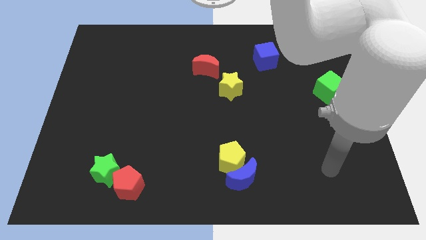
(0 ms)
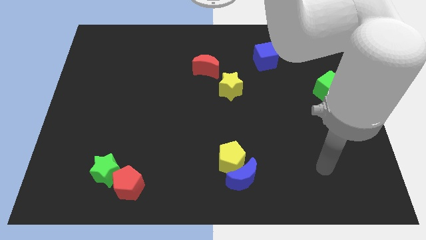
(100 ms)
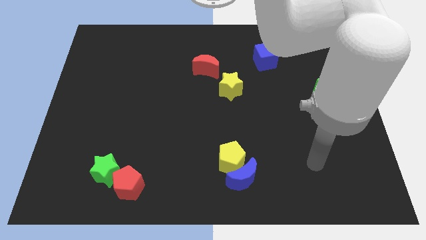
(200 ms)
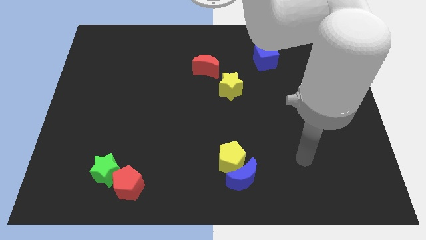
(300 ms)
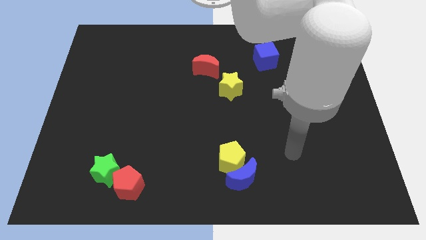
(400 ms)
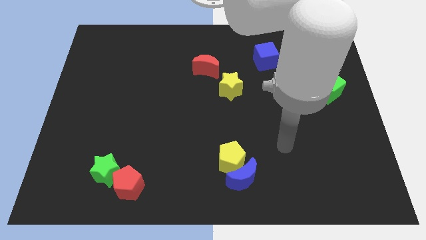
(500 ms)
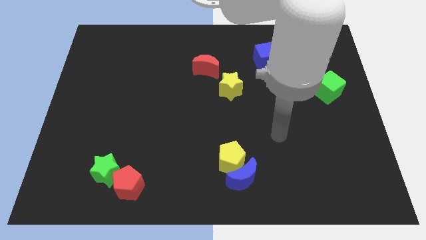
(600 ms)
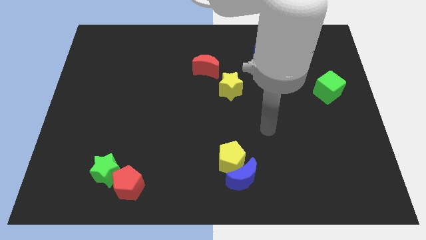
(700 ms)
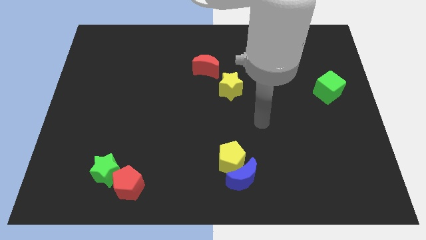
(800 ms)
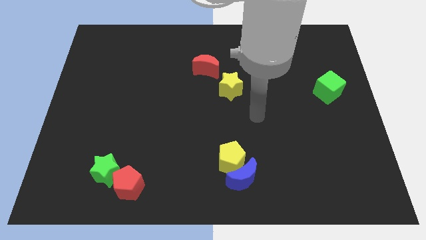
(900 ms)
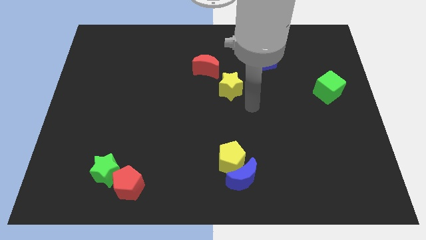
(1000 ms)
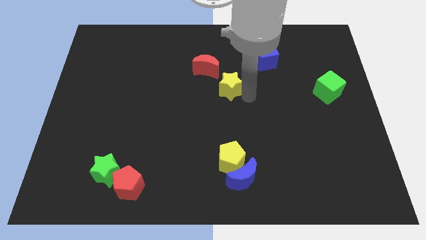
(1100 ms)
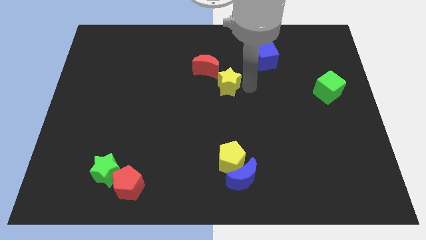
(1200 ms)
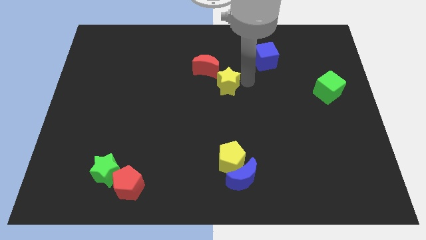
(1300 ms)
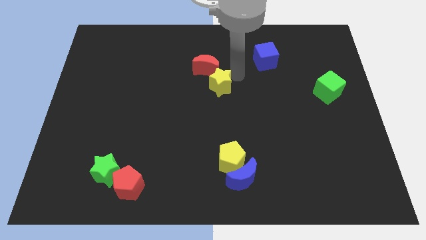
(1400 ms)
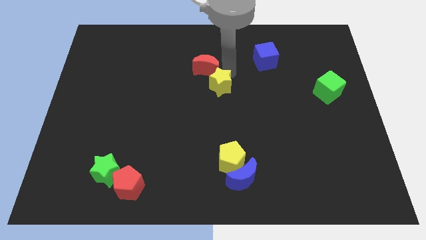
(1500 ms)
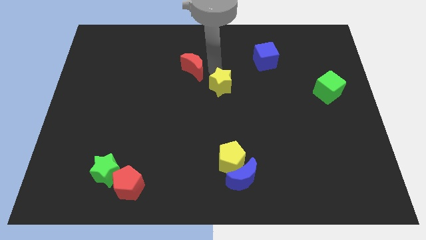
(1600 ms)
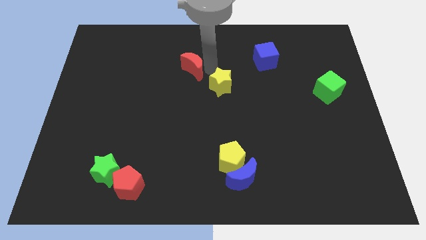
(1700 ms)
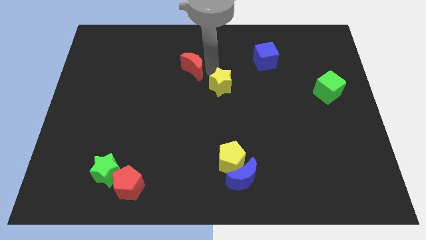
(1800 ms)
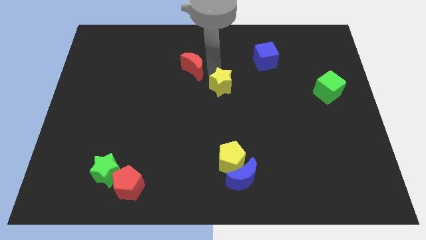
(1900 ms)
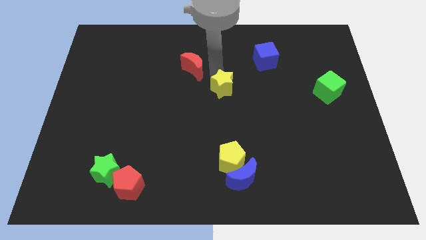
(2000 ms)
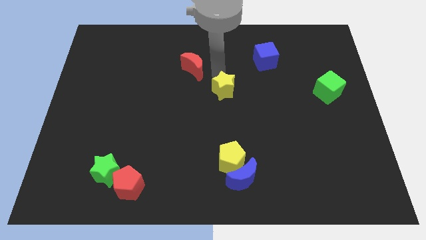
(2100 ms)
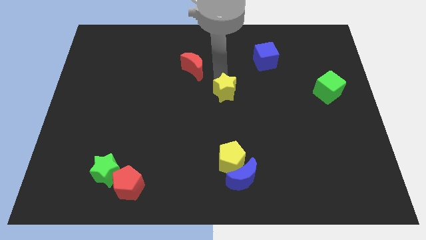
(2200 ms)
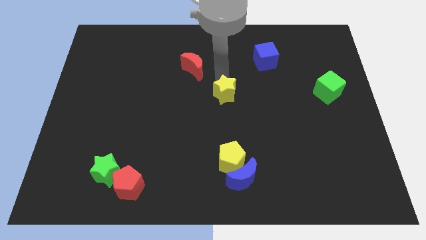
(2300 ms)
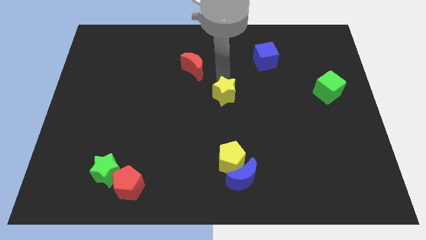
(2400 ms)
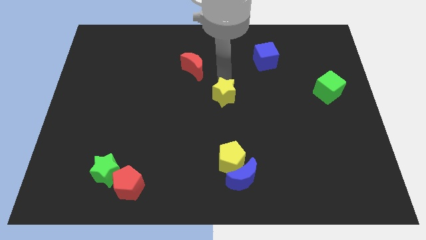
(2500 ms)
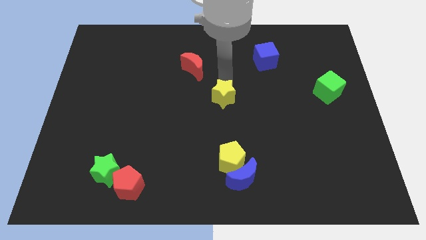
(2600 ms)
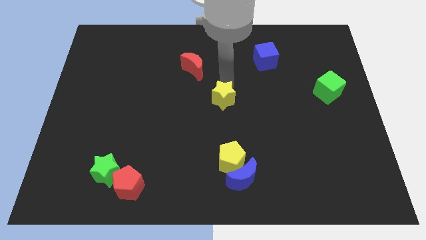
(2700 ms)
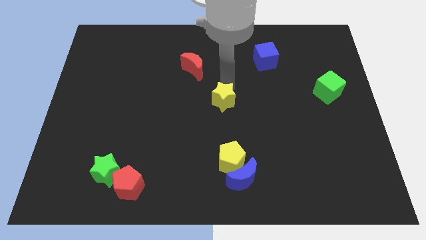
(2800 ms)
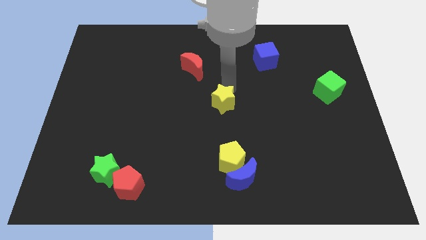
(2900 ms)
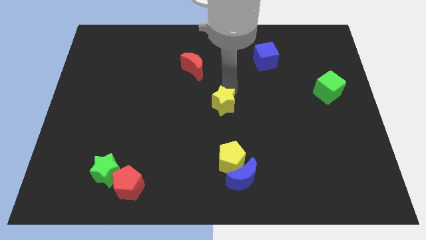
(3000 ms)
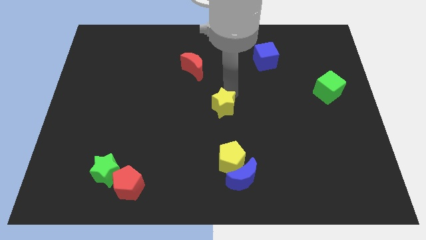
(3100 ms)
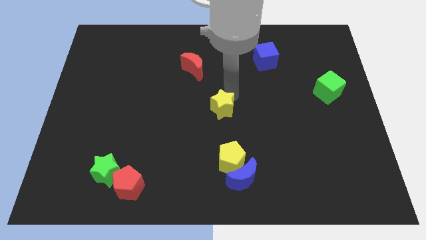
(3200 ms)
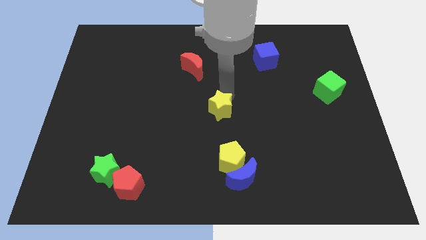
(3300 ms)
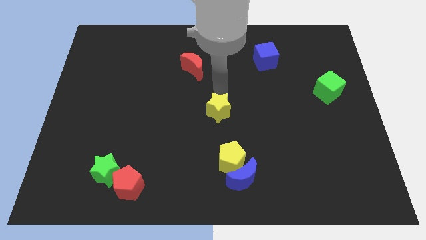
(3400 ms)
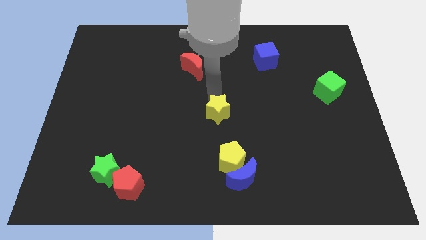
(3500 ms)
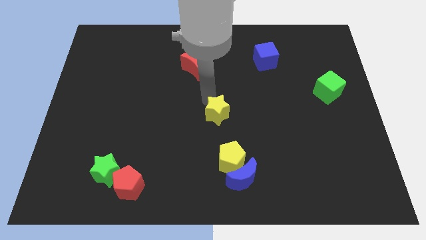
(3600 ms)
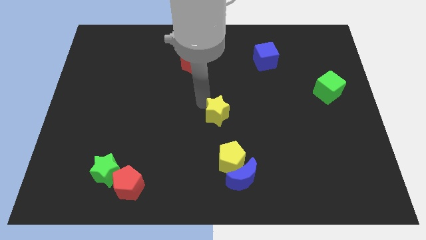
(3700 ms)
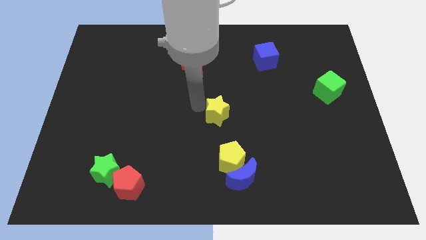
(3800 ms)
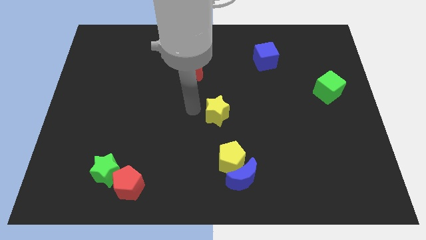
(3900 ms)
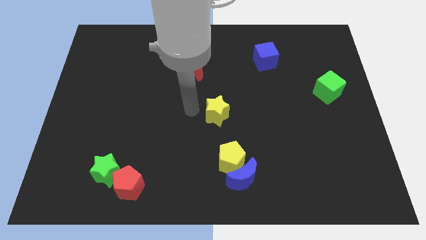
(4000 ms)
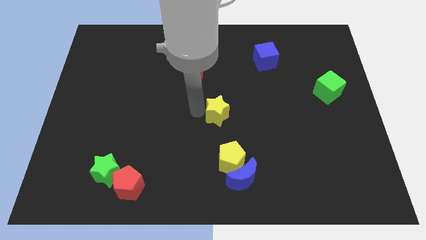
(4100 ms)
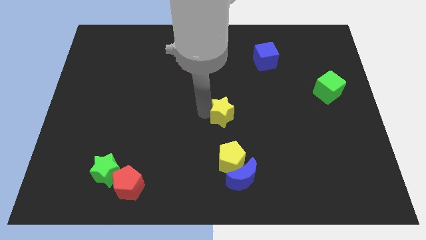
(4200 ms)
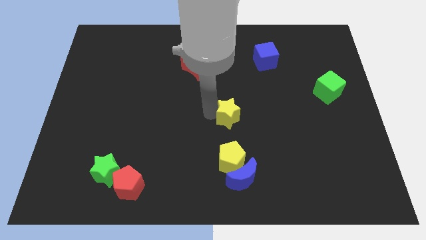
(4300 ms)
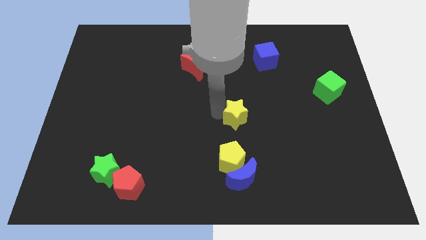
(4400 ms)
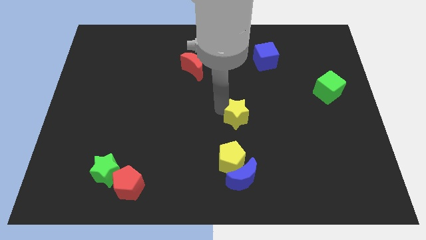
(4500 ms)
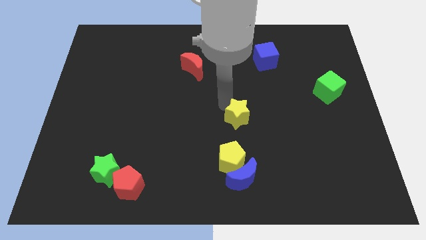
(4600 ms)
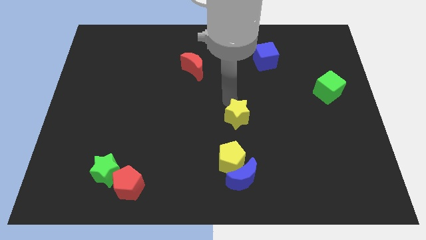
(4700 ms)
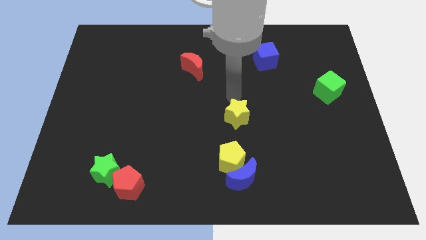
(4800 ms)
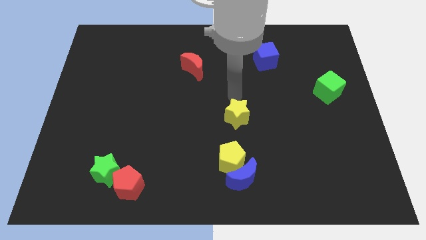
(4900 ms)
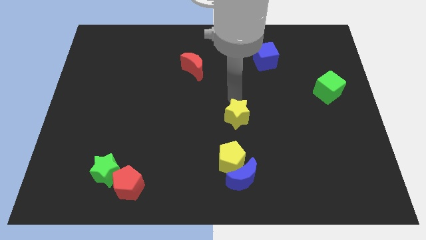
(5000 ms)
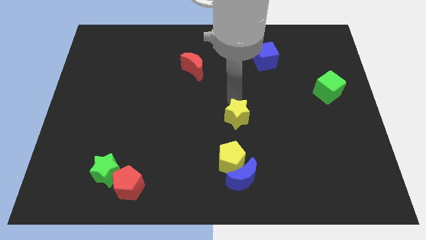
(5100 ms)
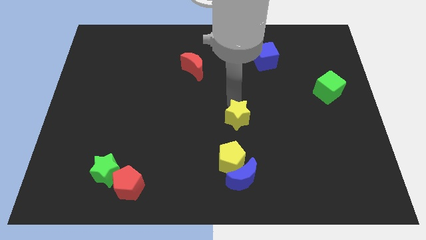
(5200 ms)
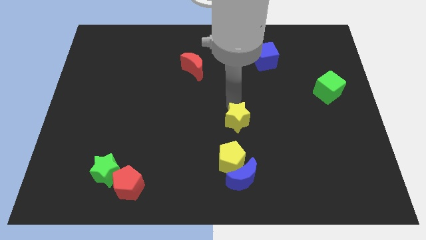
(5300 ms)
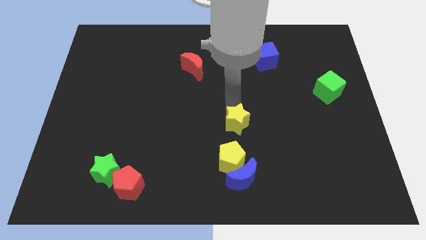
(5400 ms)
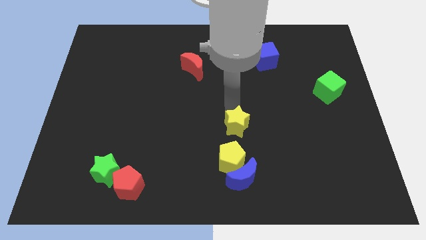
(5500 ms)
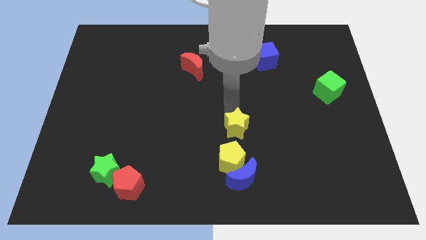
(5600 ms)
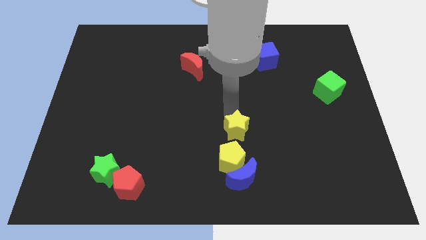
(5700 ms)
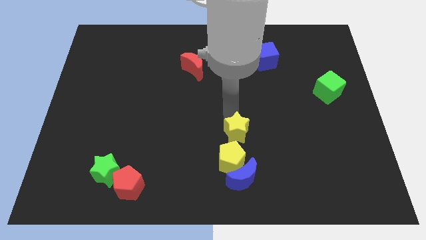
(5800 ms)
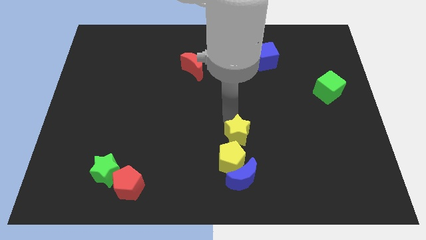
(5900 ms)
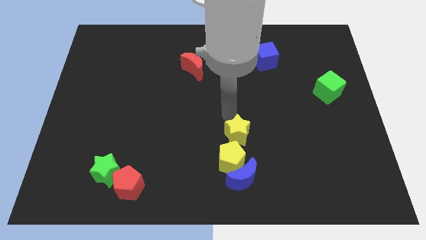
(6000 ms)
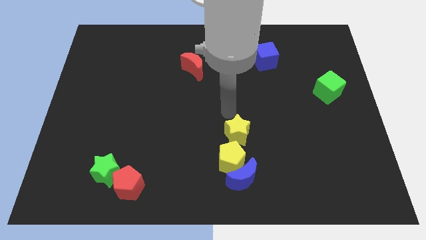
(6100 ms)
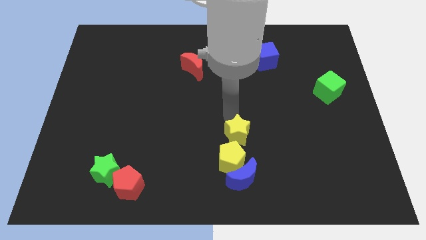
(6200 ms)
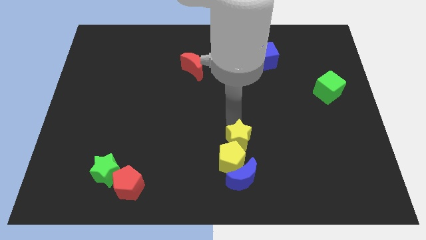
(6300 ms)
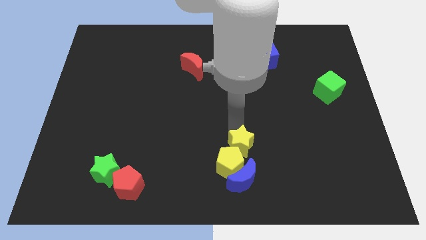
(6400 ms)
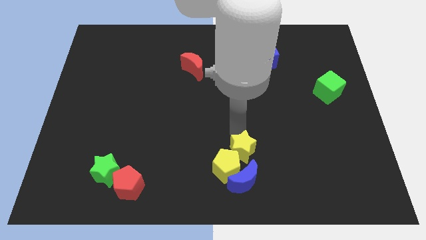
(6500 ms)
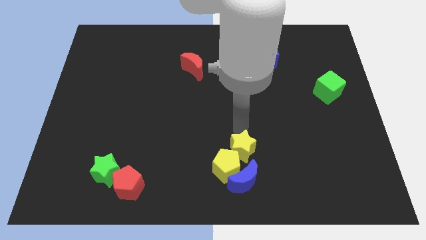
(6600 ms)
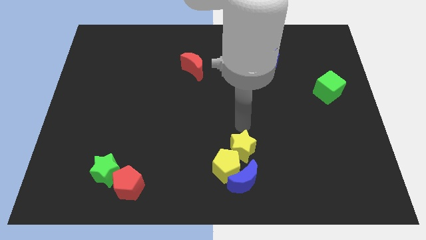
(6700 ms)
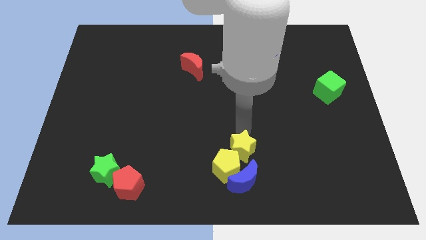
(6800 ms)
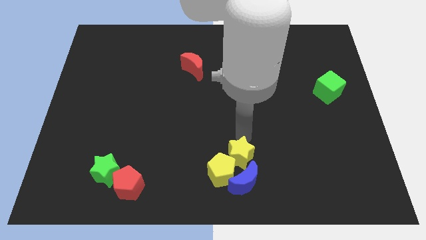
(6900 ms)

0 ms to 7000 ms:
push the yellow star to the blue moon

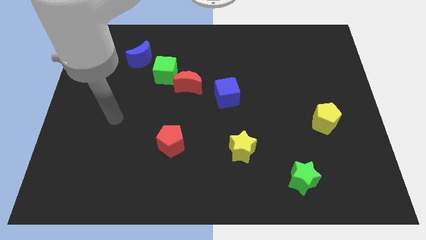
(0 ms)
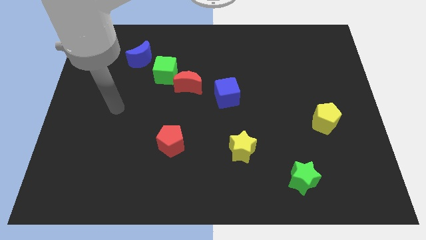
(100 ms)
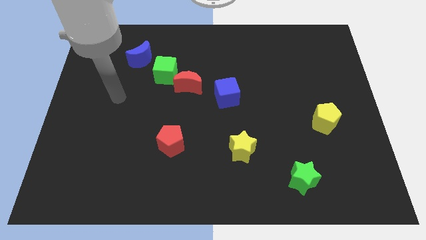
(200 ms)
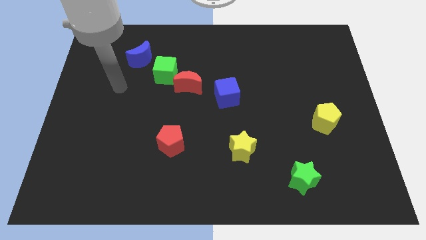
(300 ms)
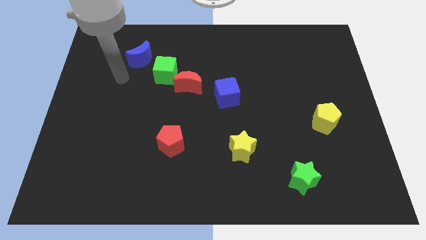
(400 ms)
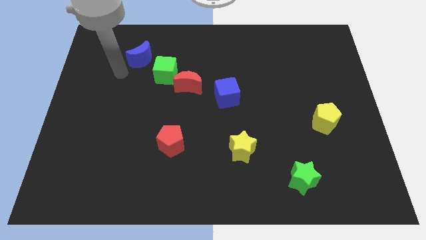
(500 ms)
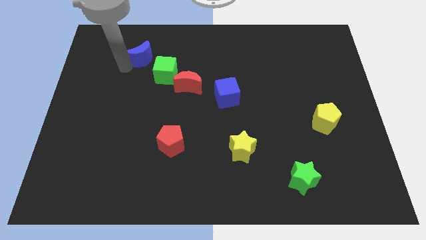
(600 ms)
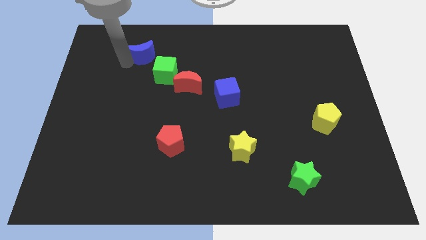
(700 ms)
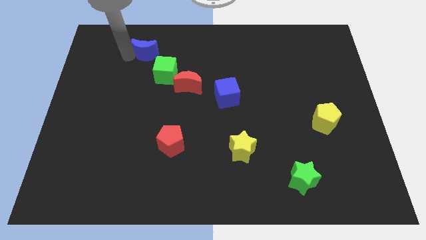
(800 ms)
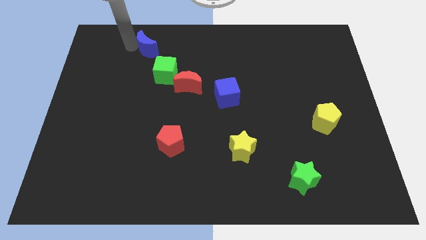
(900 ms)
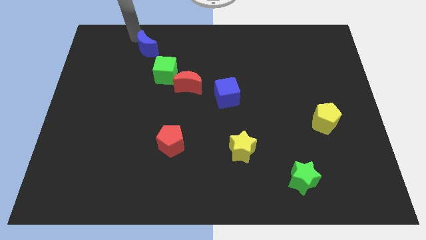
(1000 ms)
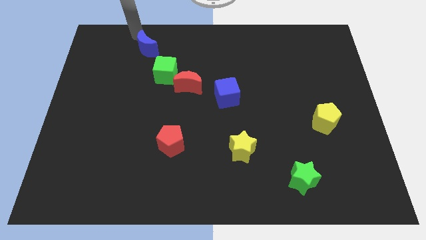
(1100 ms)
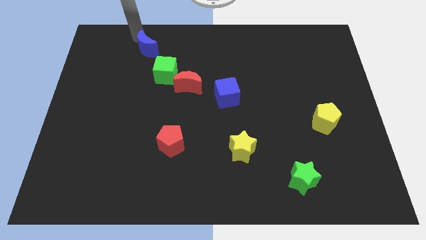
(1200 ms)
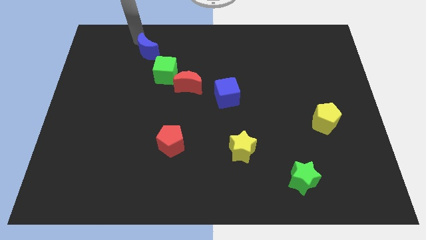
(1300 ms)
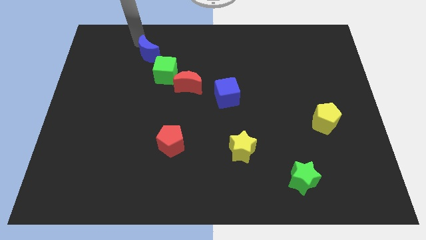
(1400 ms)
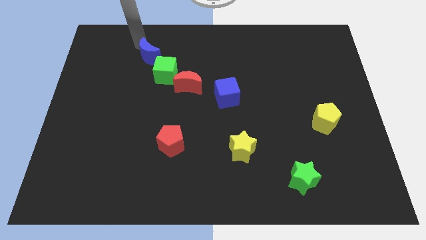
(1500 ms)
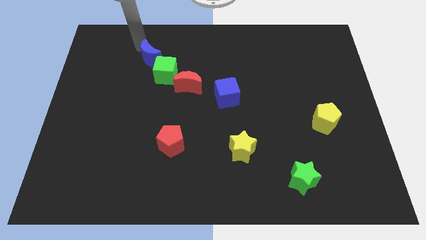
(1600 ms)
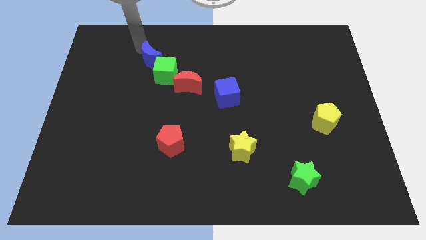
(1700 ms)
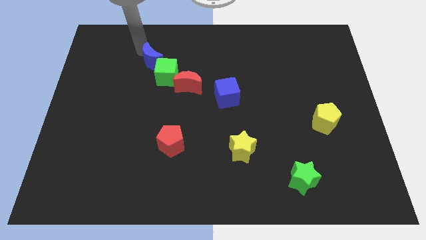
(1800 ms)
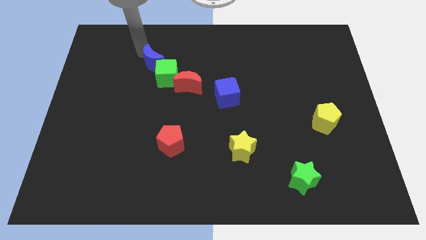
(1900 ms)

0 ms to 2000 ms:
put the blue moon next to the green cube
